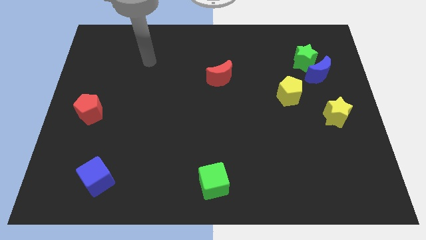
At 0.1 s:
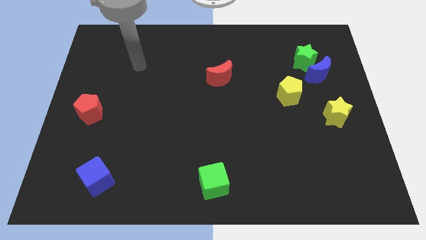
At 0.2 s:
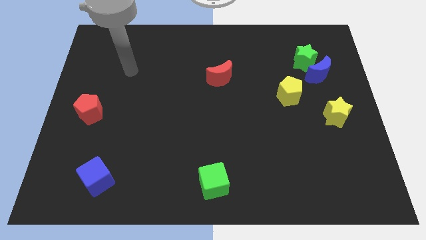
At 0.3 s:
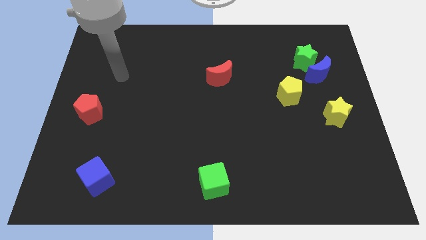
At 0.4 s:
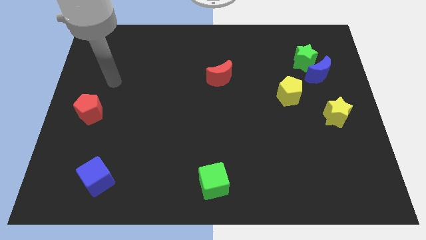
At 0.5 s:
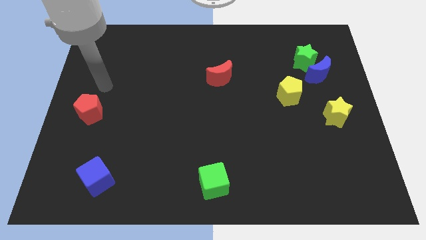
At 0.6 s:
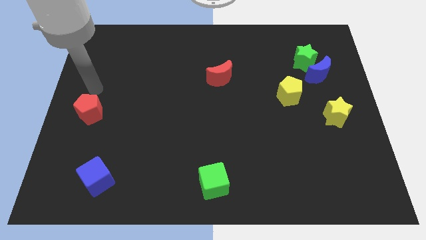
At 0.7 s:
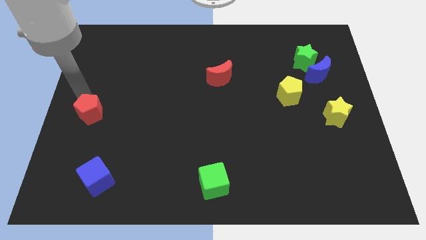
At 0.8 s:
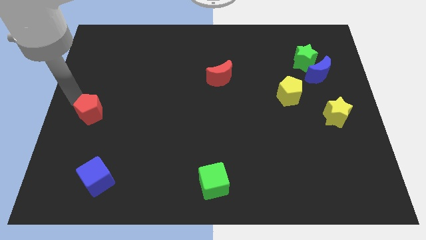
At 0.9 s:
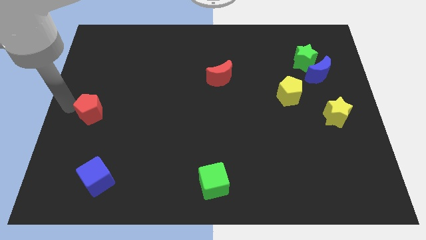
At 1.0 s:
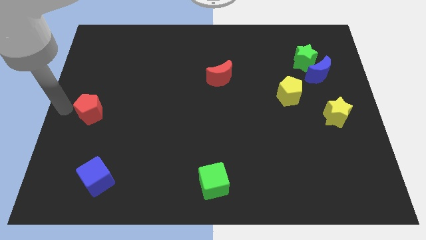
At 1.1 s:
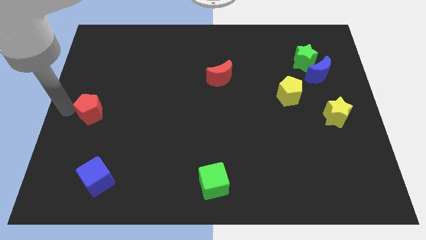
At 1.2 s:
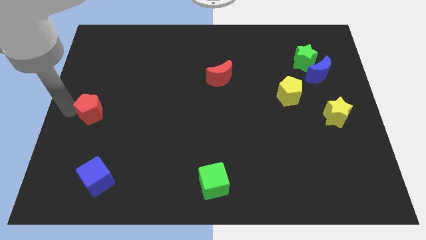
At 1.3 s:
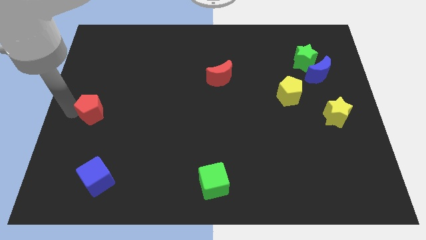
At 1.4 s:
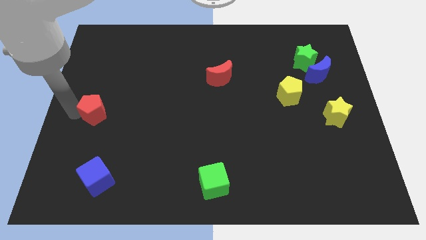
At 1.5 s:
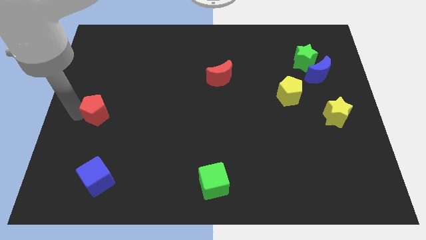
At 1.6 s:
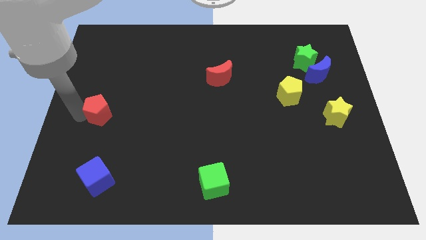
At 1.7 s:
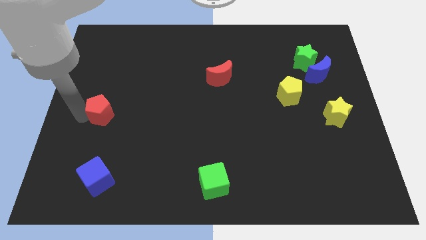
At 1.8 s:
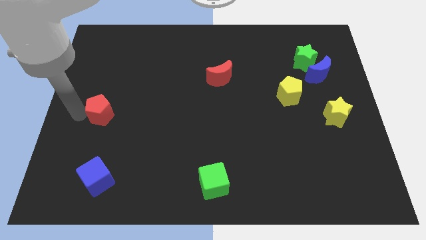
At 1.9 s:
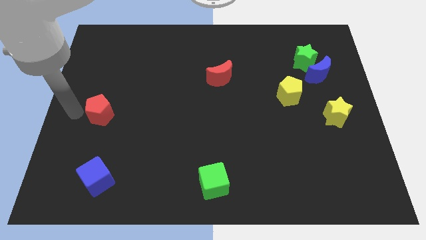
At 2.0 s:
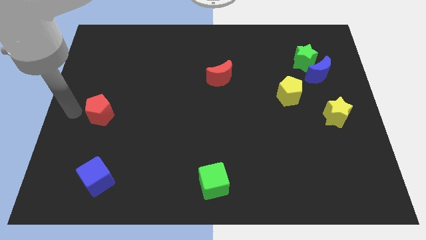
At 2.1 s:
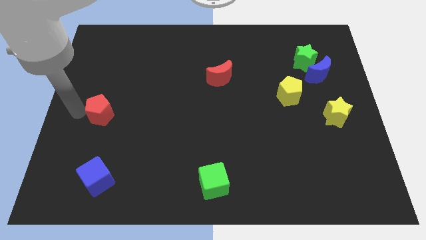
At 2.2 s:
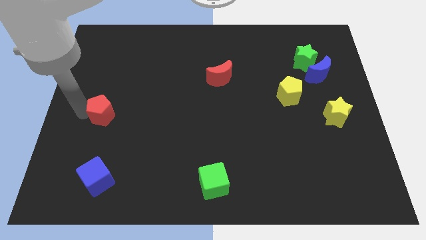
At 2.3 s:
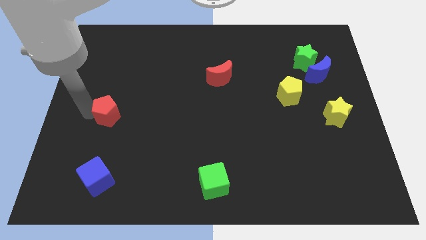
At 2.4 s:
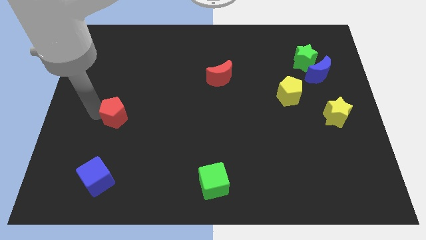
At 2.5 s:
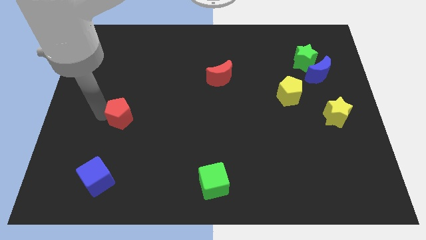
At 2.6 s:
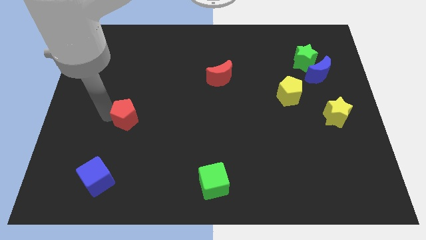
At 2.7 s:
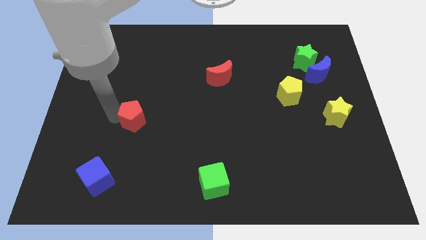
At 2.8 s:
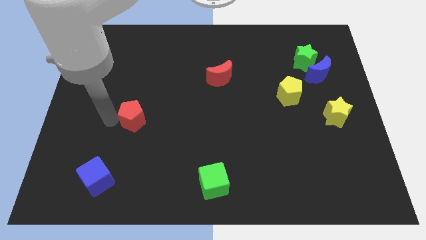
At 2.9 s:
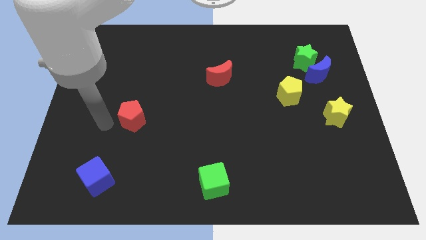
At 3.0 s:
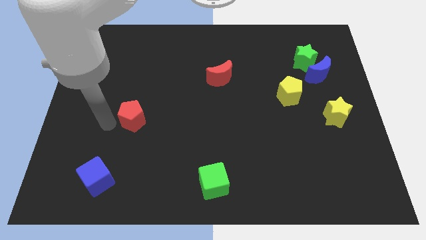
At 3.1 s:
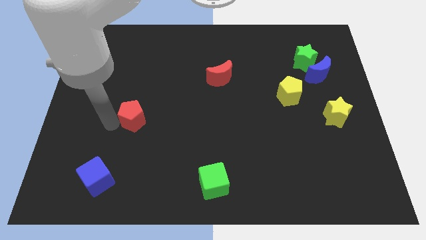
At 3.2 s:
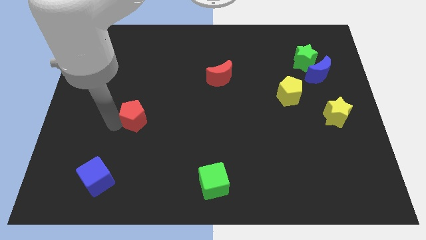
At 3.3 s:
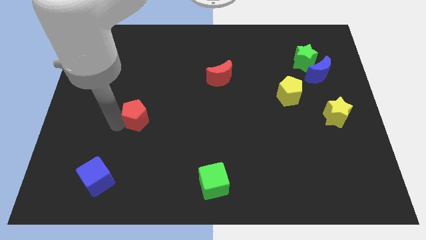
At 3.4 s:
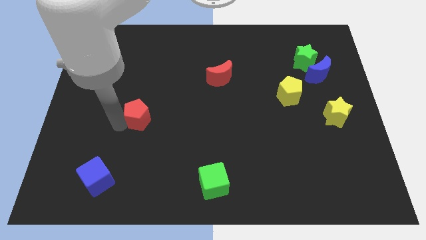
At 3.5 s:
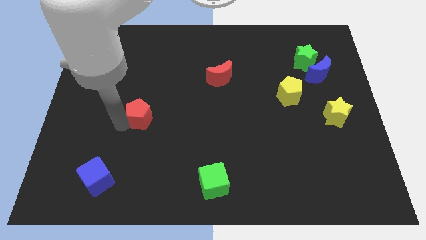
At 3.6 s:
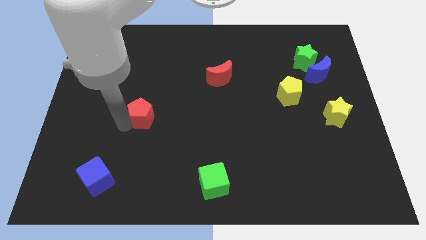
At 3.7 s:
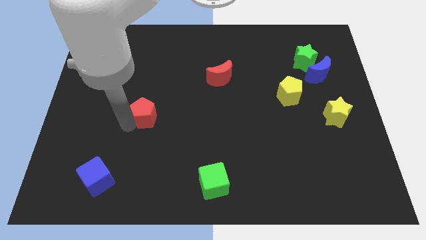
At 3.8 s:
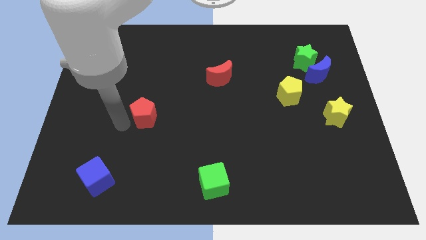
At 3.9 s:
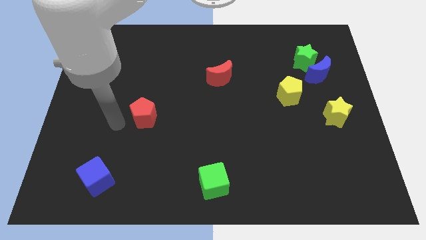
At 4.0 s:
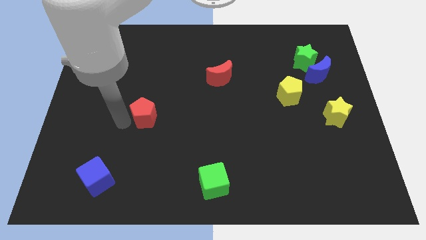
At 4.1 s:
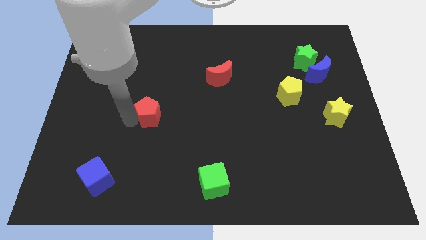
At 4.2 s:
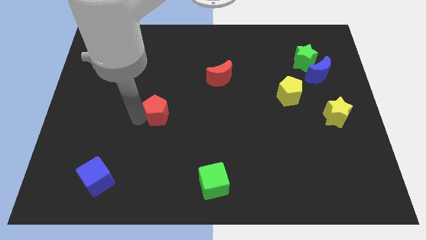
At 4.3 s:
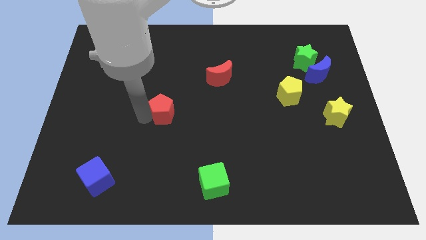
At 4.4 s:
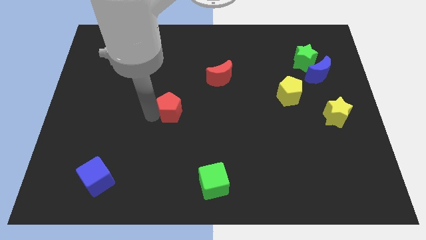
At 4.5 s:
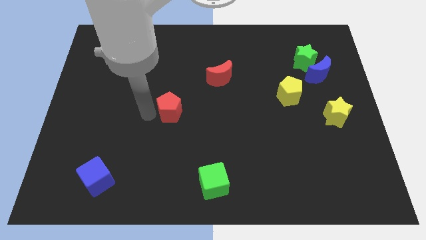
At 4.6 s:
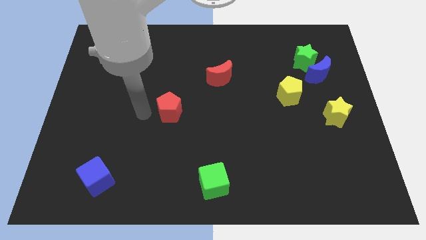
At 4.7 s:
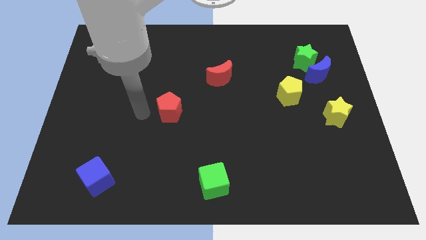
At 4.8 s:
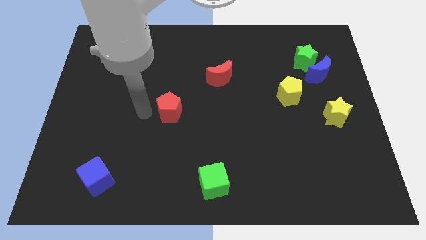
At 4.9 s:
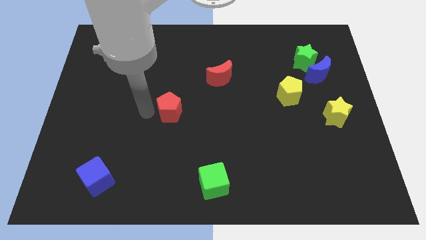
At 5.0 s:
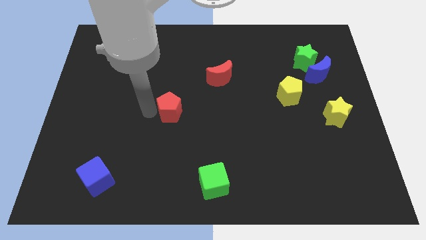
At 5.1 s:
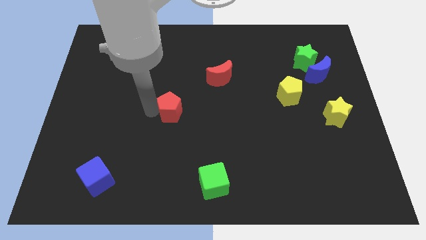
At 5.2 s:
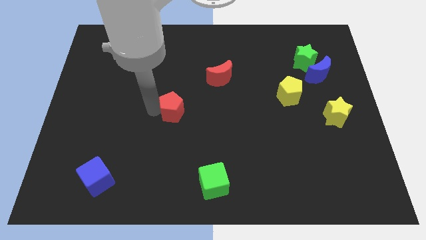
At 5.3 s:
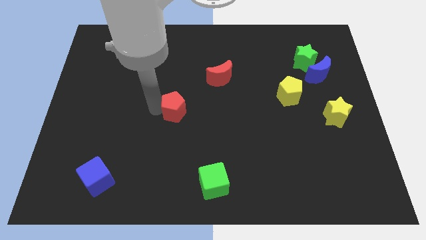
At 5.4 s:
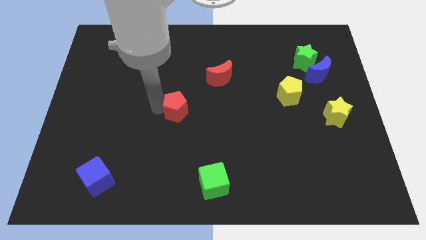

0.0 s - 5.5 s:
slide the red pentagon to the right

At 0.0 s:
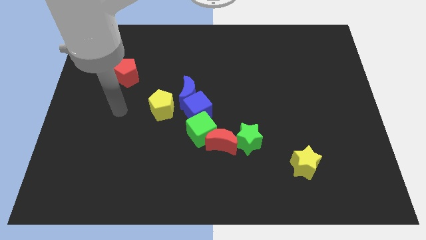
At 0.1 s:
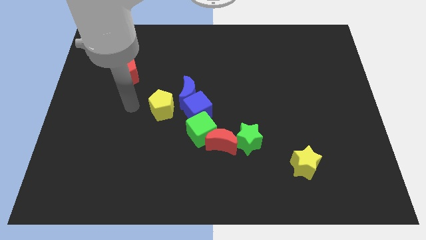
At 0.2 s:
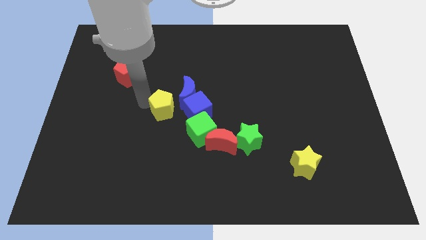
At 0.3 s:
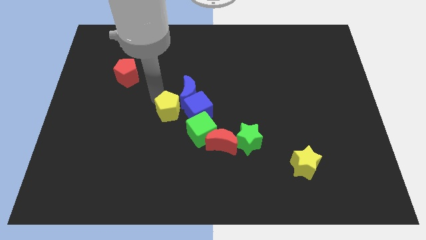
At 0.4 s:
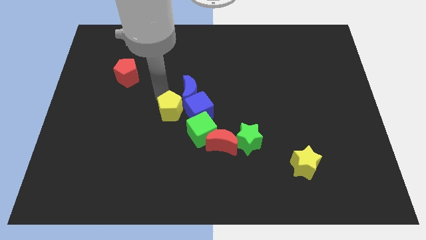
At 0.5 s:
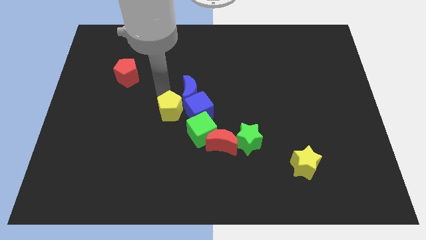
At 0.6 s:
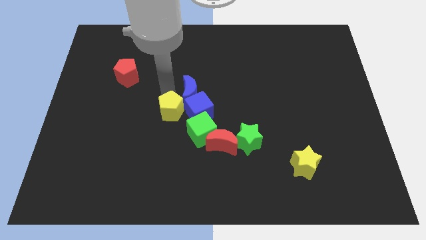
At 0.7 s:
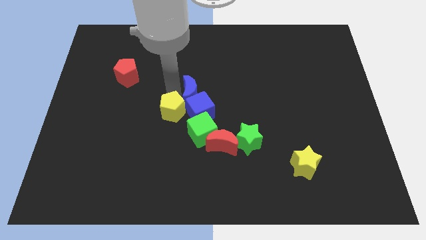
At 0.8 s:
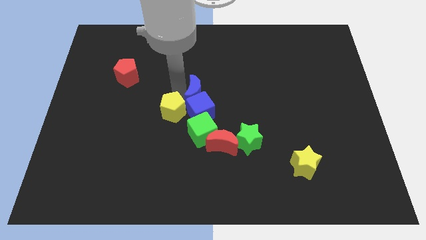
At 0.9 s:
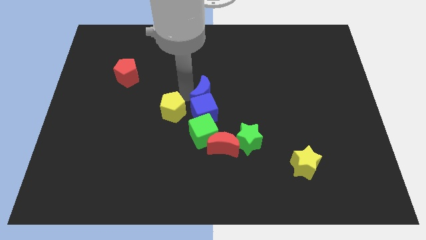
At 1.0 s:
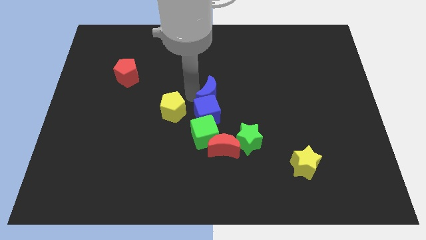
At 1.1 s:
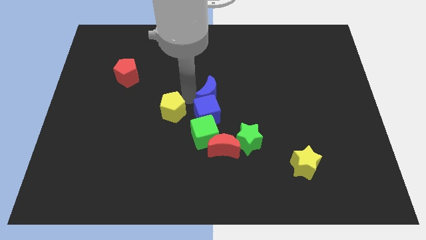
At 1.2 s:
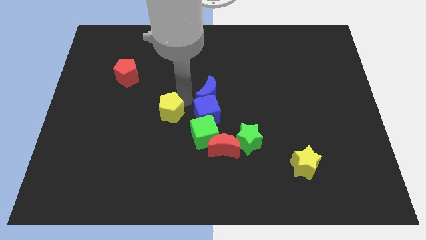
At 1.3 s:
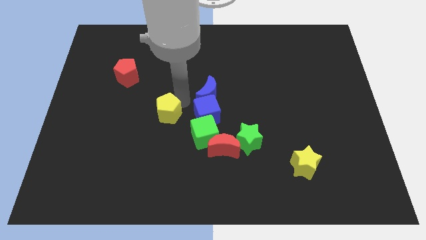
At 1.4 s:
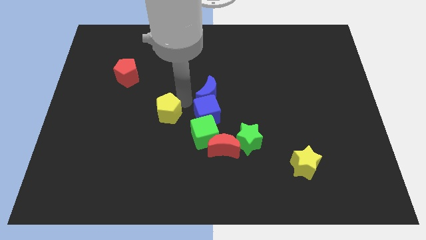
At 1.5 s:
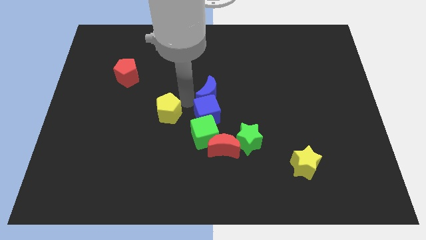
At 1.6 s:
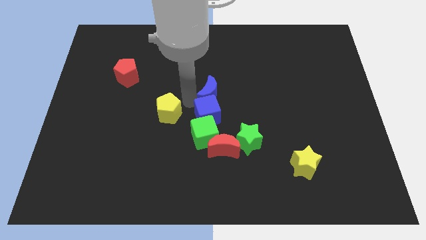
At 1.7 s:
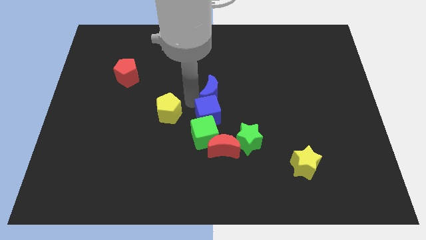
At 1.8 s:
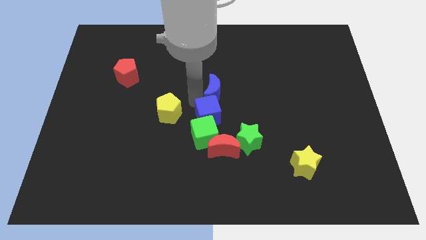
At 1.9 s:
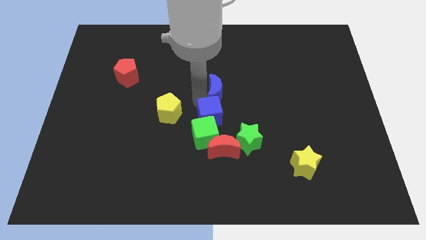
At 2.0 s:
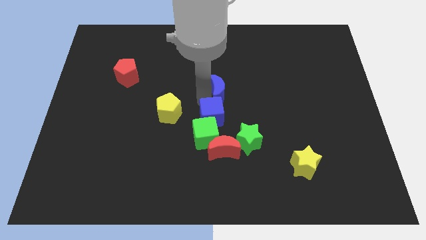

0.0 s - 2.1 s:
slightly move the blue moon to the right

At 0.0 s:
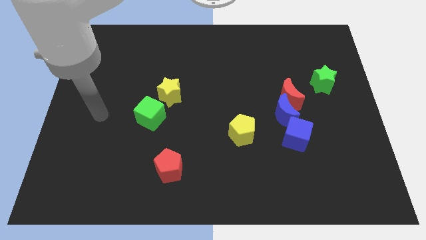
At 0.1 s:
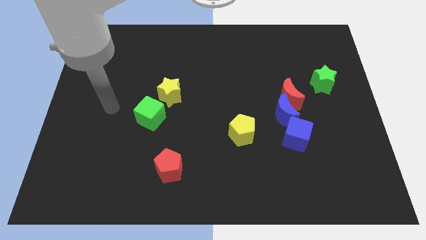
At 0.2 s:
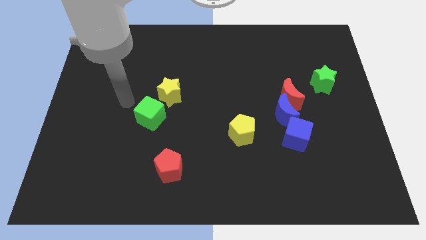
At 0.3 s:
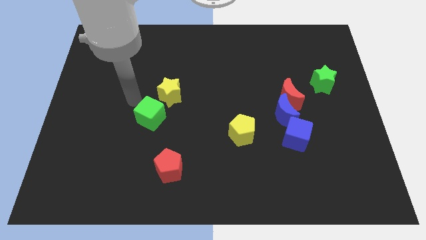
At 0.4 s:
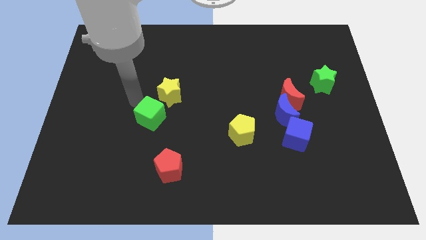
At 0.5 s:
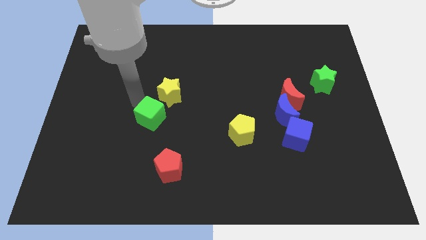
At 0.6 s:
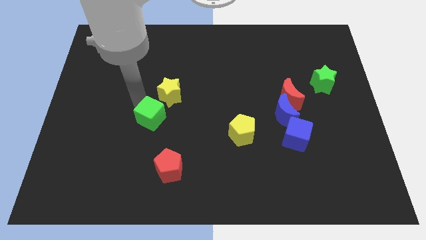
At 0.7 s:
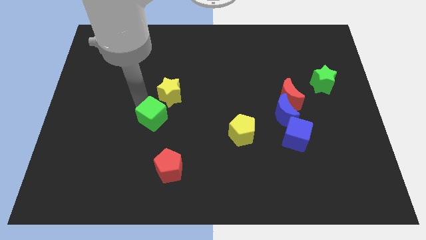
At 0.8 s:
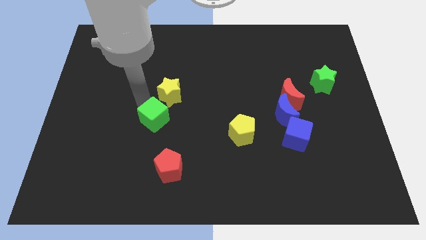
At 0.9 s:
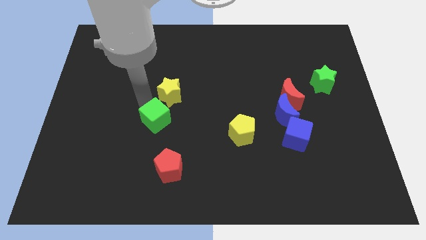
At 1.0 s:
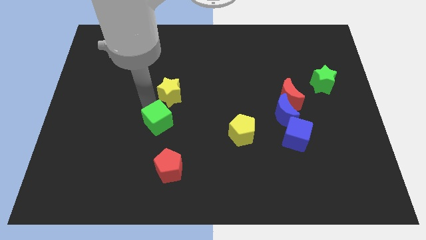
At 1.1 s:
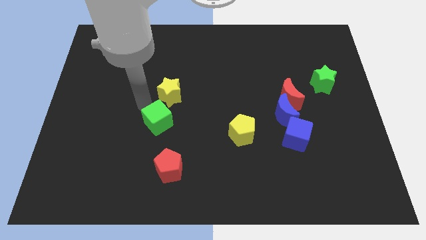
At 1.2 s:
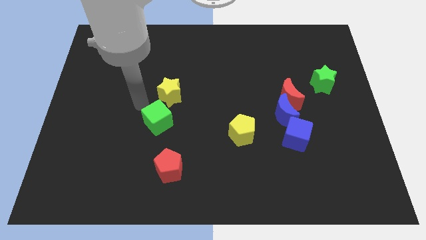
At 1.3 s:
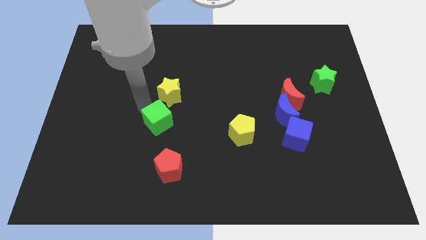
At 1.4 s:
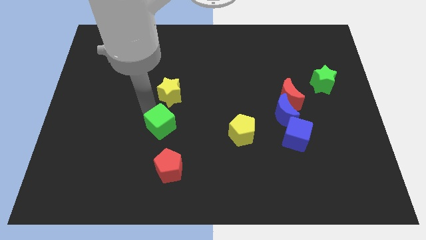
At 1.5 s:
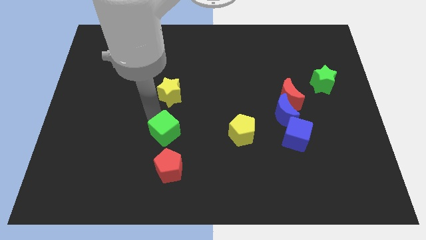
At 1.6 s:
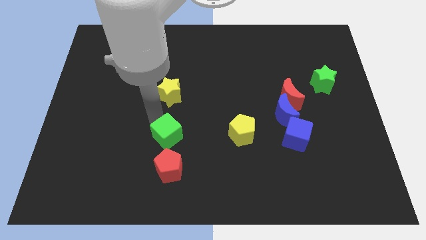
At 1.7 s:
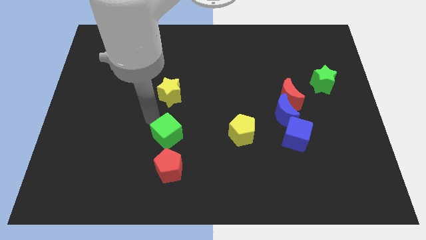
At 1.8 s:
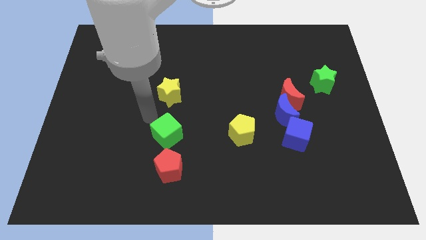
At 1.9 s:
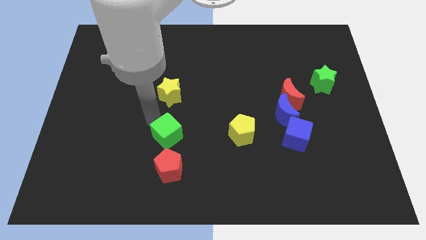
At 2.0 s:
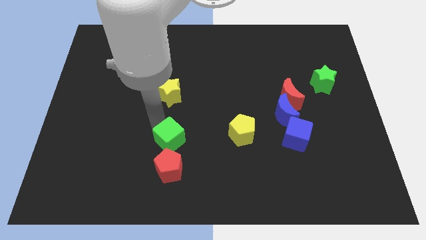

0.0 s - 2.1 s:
push the green cube a little diagonally down and to the right
